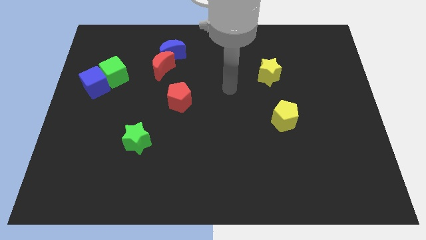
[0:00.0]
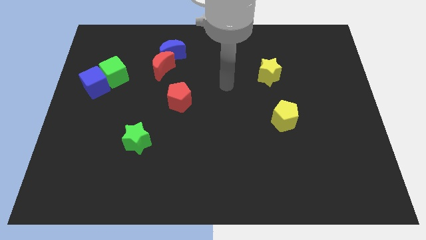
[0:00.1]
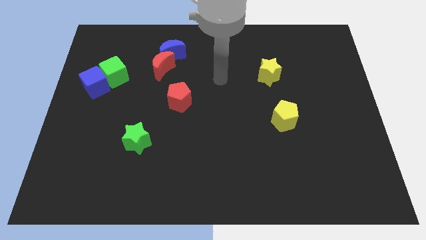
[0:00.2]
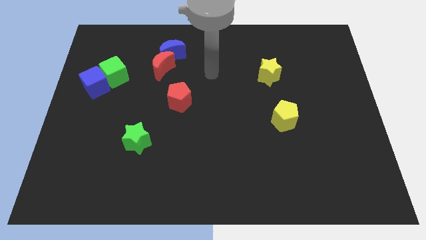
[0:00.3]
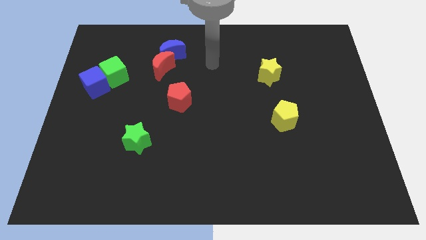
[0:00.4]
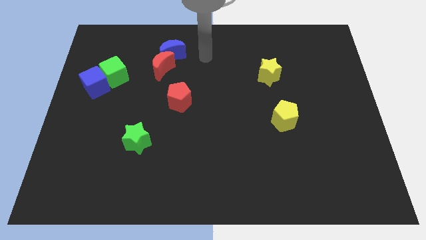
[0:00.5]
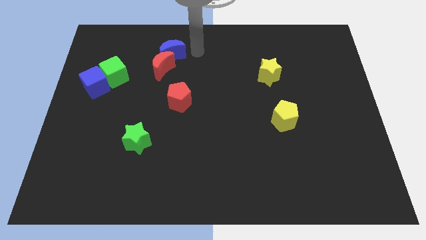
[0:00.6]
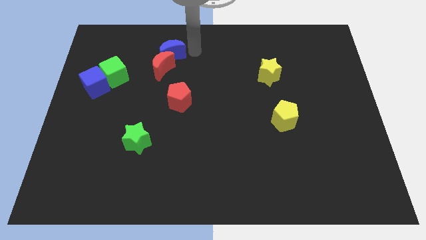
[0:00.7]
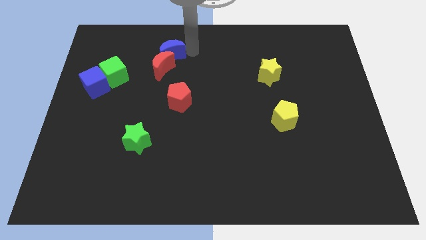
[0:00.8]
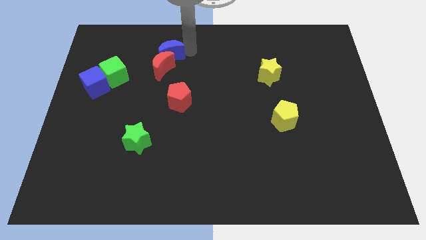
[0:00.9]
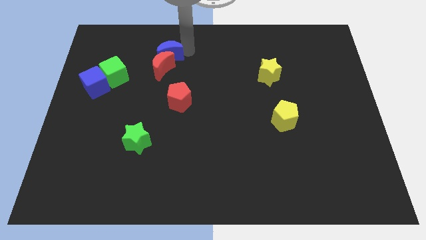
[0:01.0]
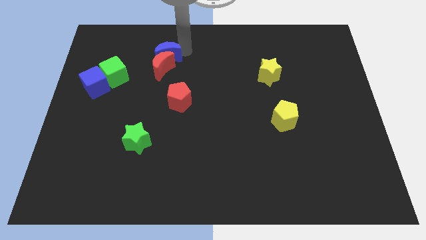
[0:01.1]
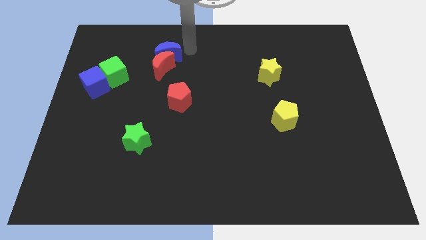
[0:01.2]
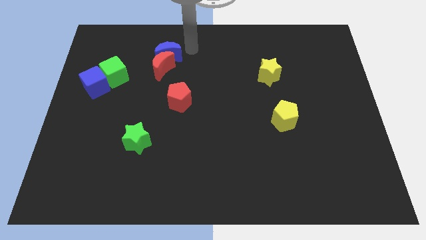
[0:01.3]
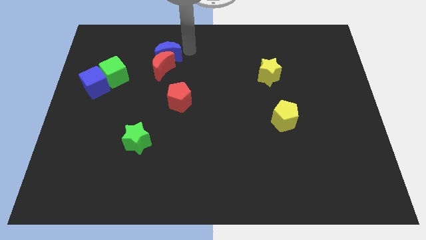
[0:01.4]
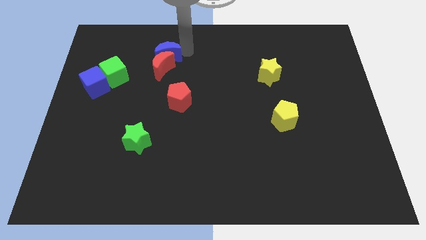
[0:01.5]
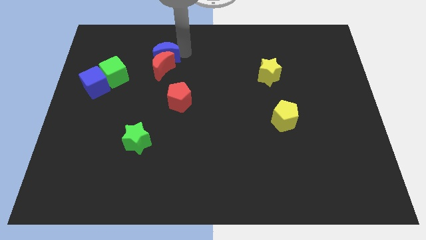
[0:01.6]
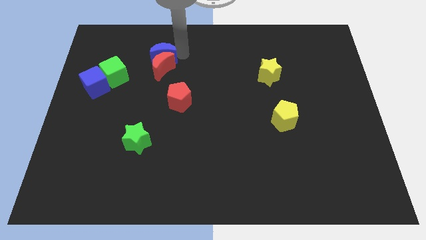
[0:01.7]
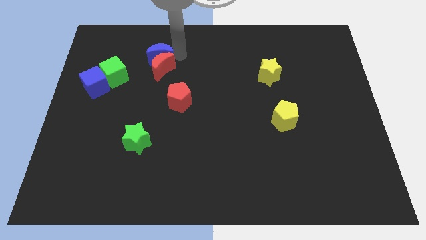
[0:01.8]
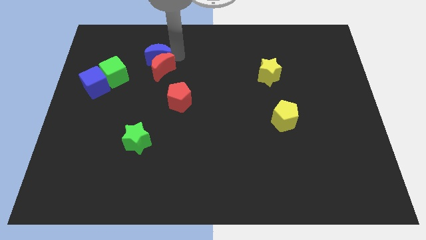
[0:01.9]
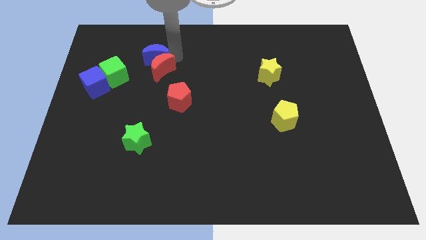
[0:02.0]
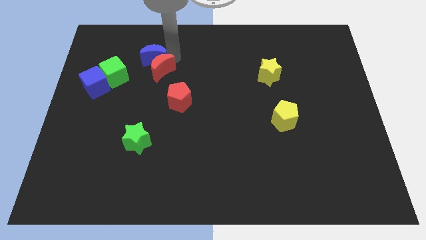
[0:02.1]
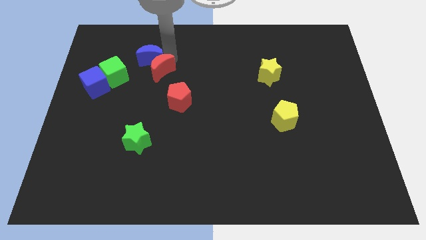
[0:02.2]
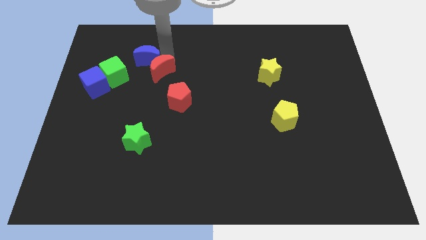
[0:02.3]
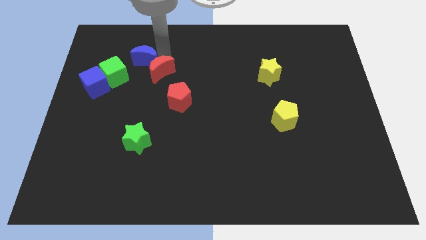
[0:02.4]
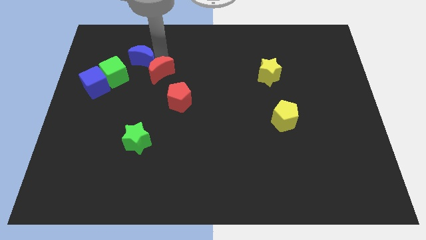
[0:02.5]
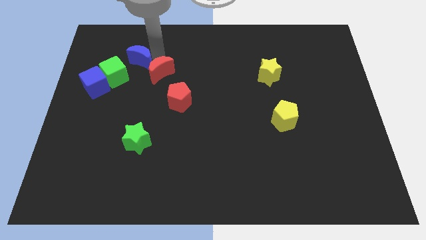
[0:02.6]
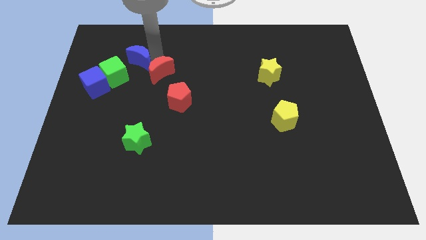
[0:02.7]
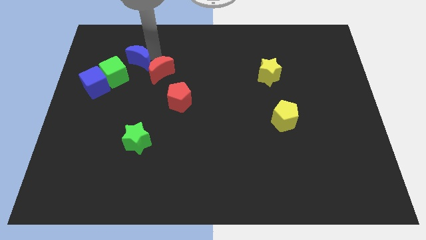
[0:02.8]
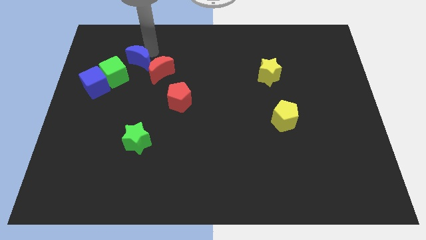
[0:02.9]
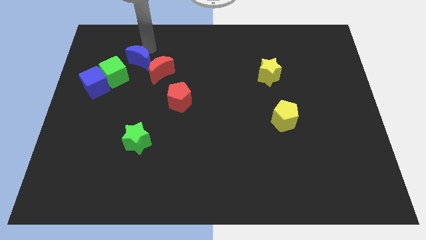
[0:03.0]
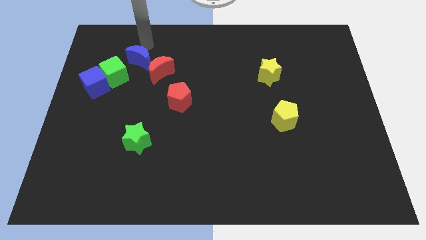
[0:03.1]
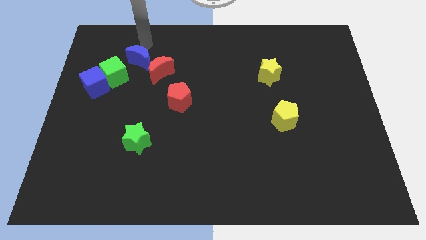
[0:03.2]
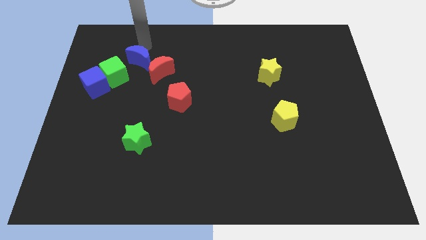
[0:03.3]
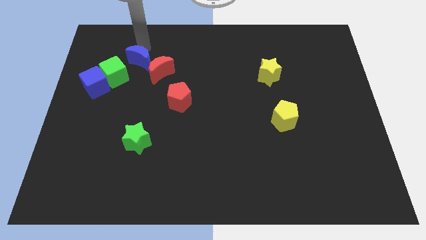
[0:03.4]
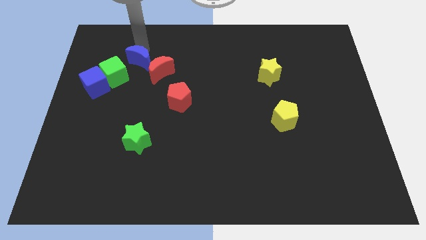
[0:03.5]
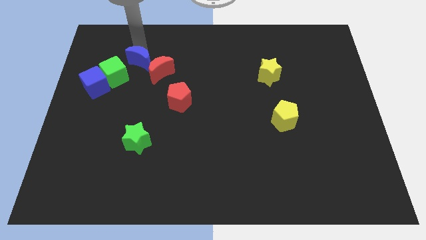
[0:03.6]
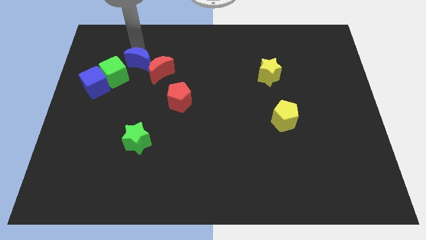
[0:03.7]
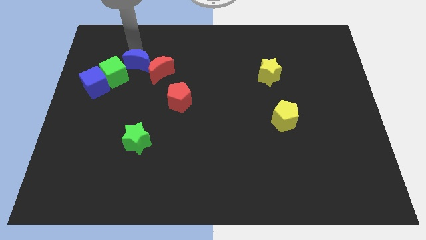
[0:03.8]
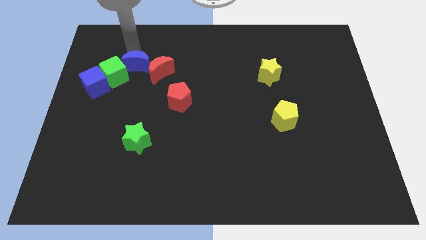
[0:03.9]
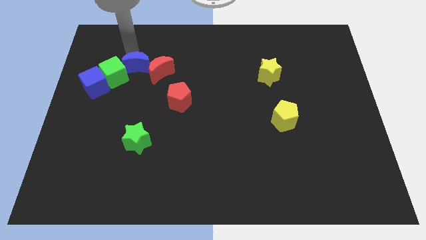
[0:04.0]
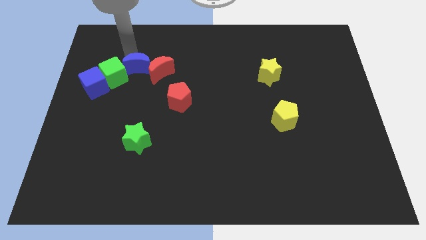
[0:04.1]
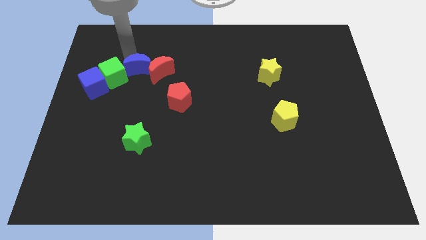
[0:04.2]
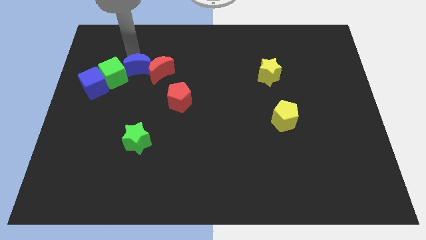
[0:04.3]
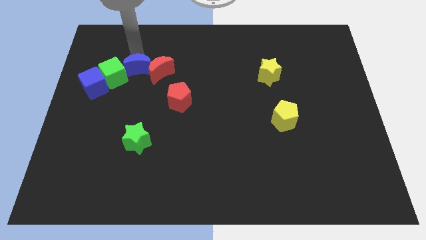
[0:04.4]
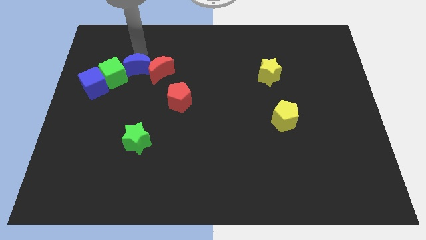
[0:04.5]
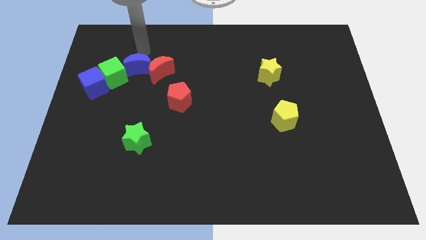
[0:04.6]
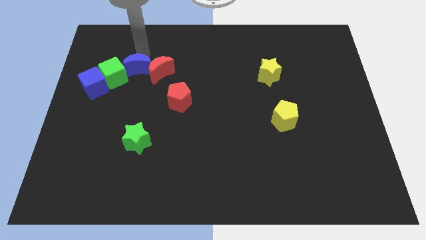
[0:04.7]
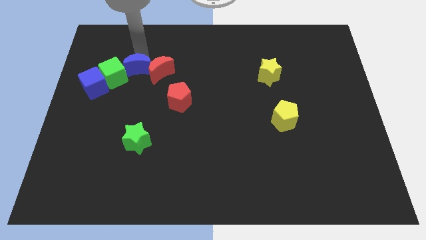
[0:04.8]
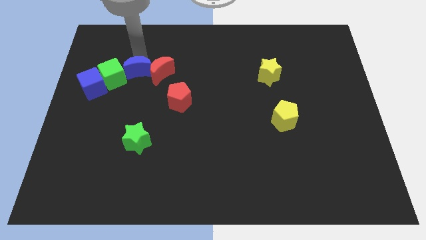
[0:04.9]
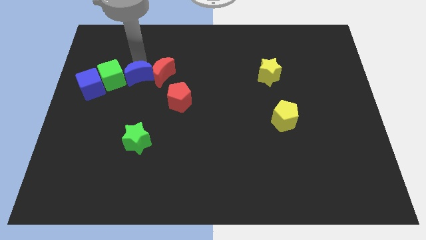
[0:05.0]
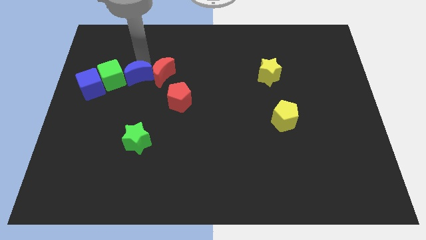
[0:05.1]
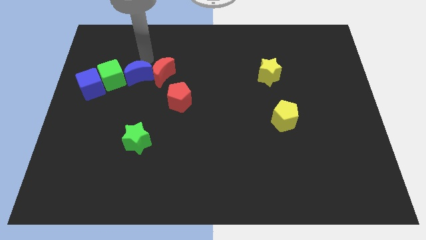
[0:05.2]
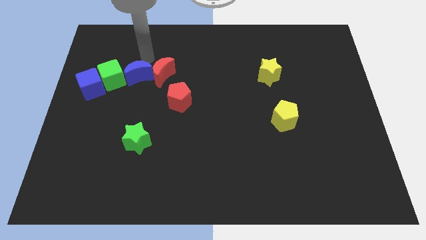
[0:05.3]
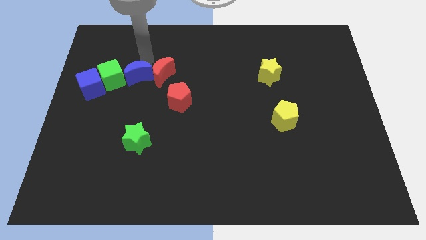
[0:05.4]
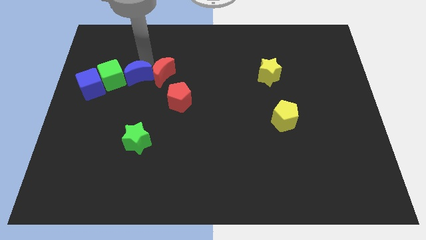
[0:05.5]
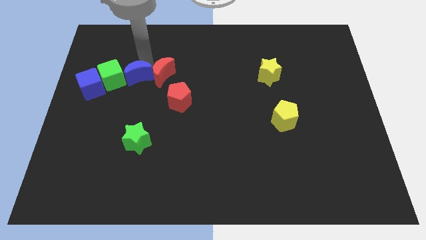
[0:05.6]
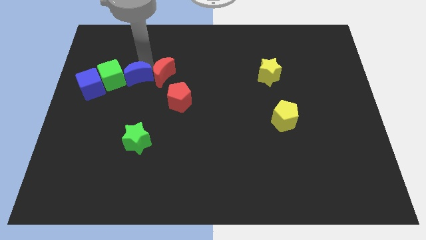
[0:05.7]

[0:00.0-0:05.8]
move the blue moon diagonally down and to the right of the green cube

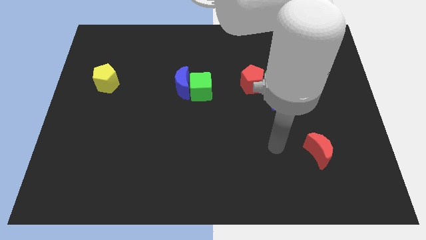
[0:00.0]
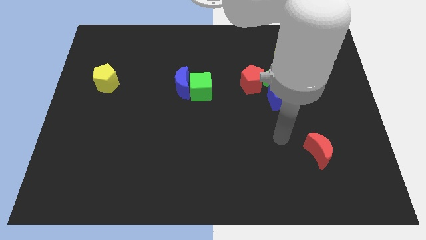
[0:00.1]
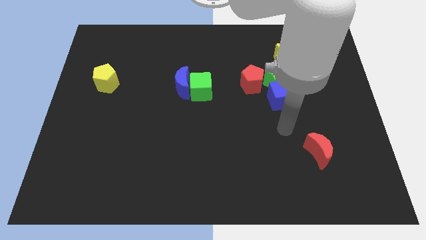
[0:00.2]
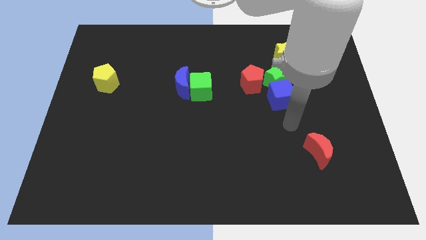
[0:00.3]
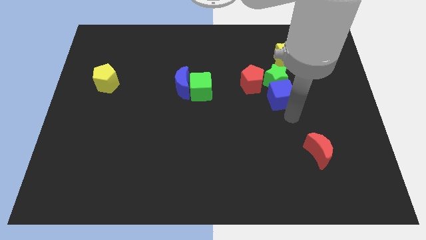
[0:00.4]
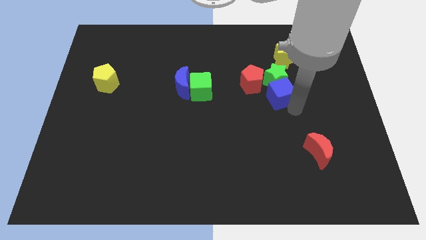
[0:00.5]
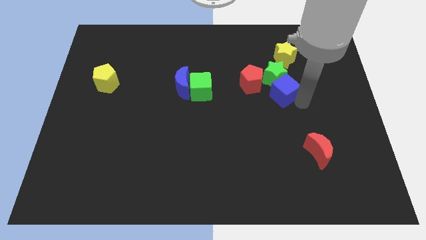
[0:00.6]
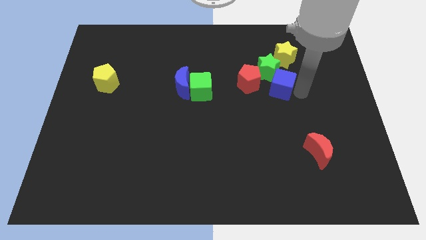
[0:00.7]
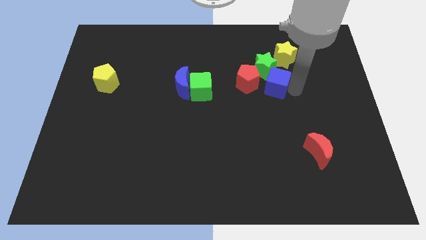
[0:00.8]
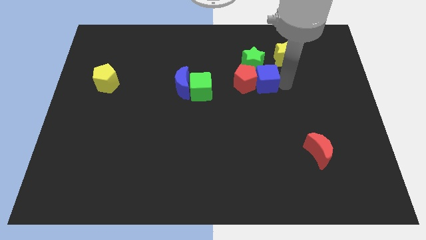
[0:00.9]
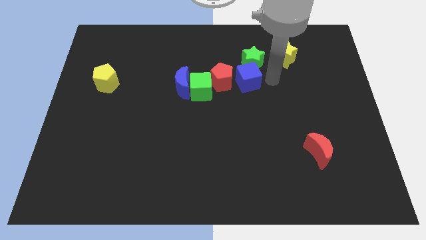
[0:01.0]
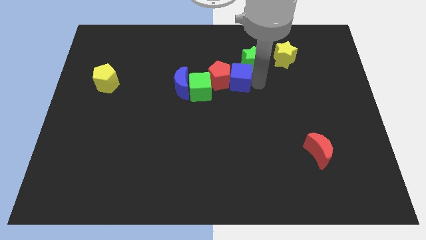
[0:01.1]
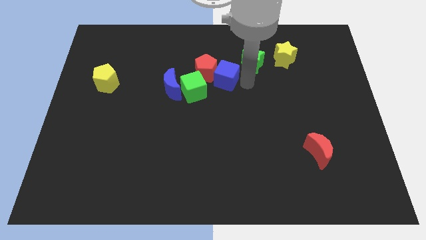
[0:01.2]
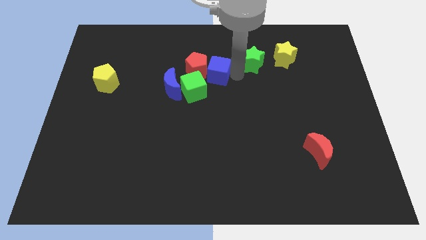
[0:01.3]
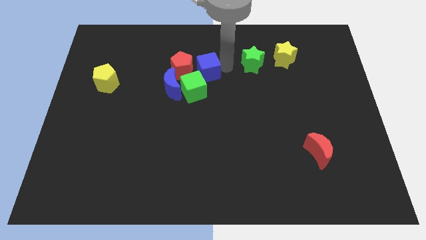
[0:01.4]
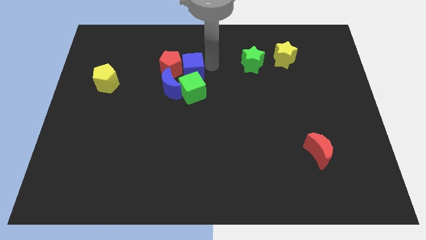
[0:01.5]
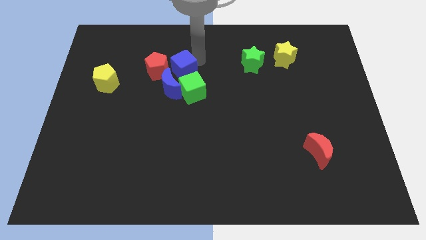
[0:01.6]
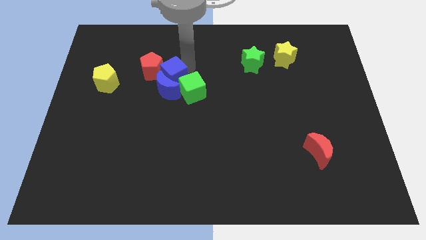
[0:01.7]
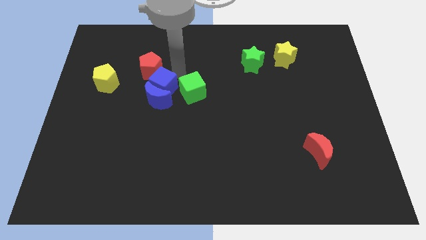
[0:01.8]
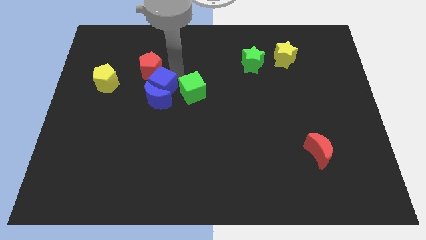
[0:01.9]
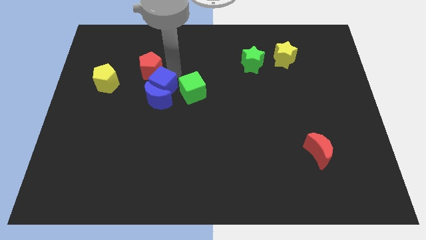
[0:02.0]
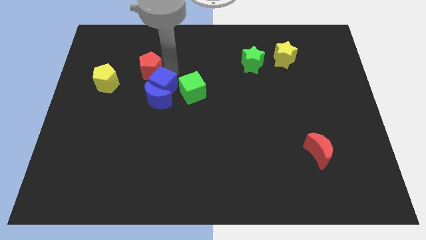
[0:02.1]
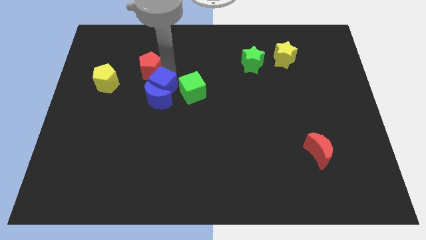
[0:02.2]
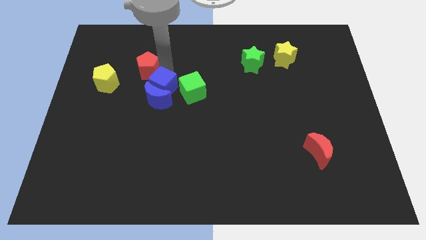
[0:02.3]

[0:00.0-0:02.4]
push the red pentagon to the top right of the yellow pentagon
